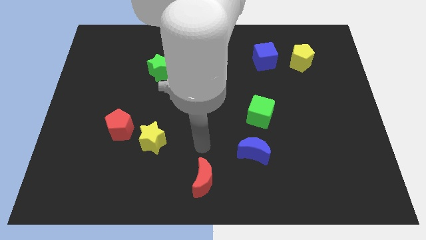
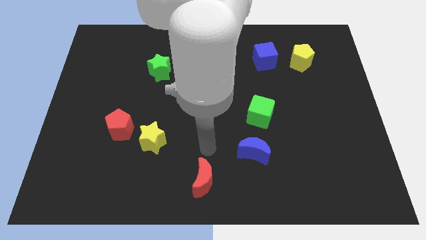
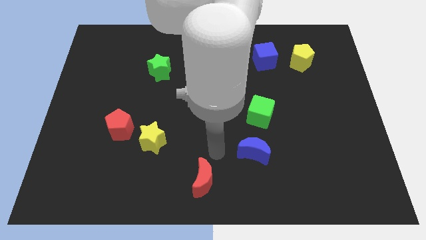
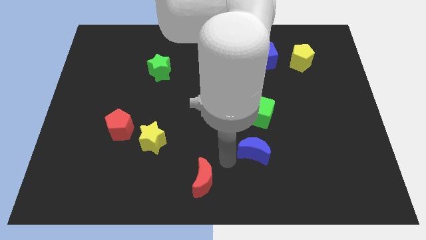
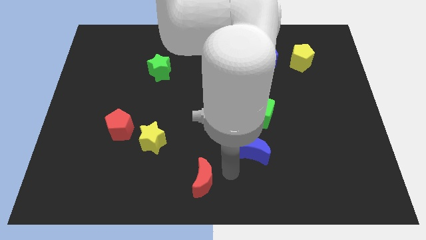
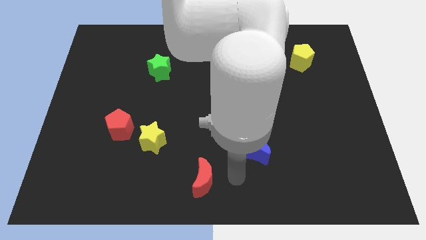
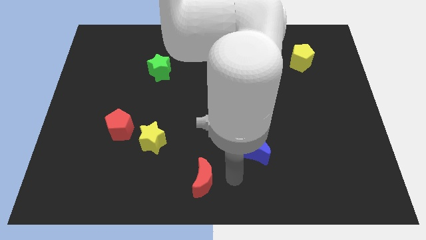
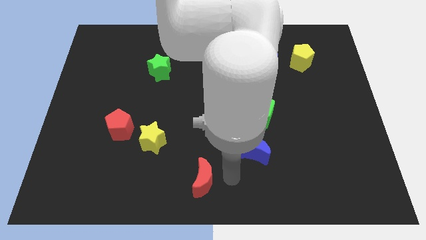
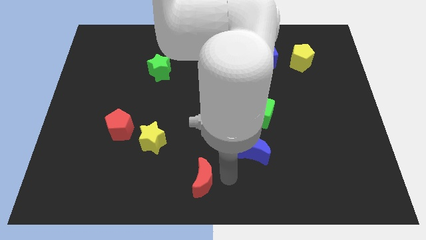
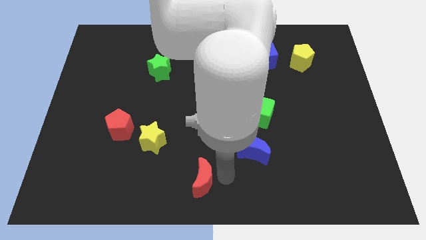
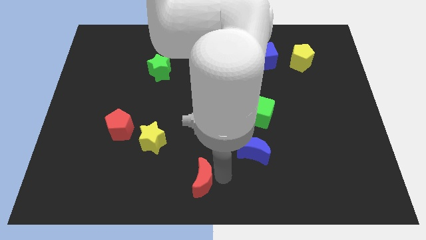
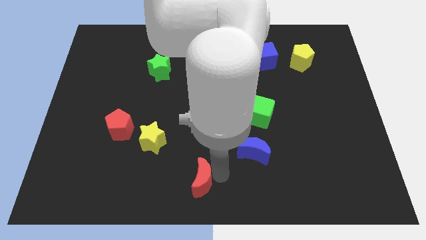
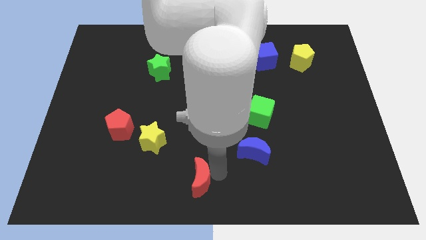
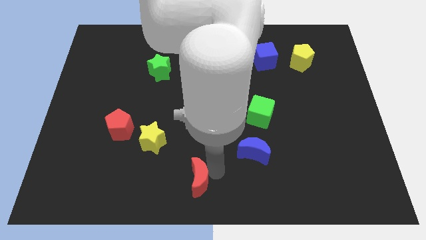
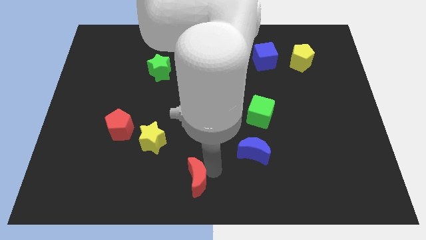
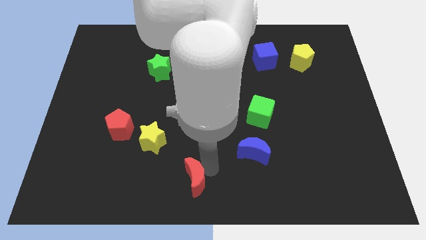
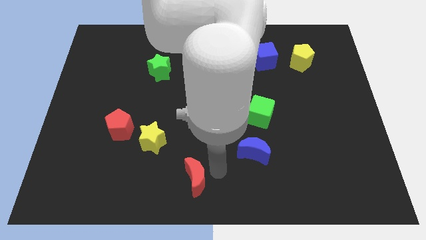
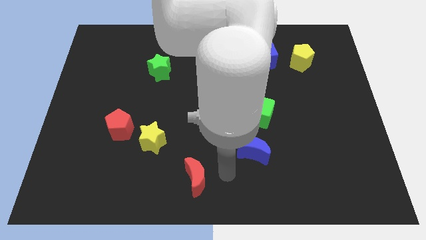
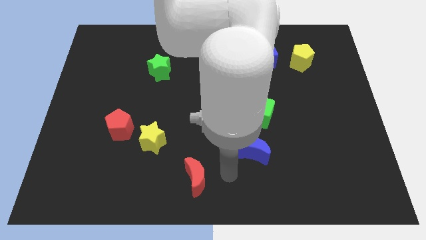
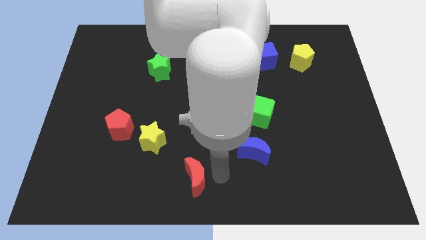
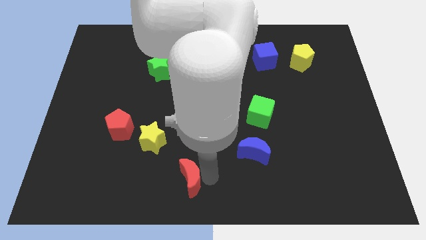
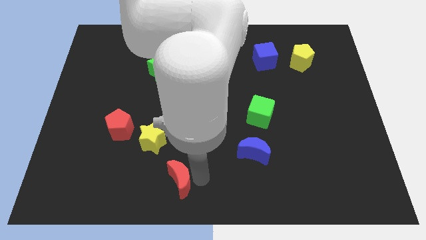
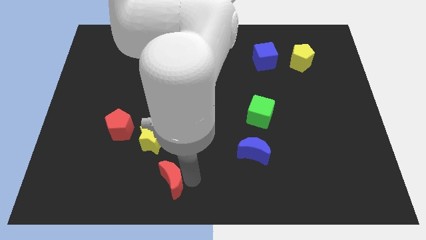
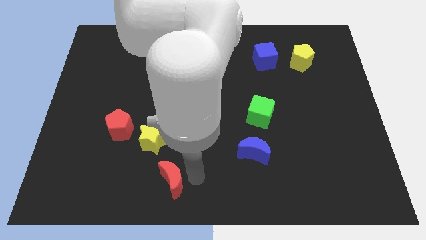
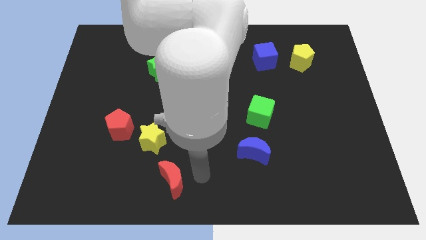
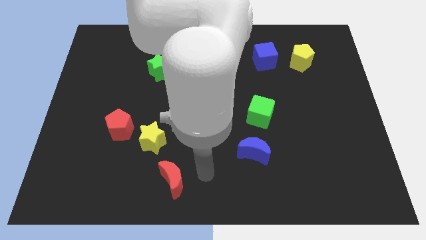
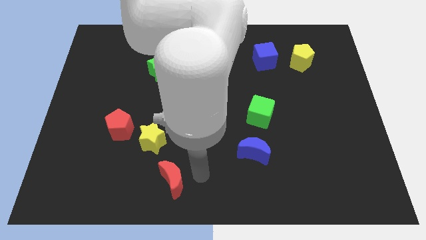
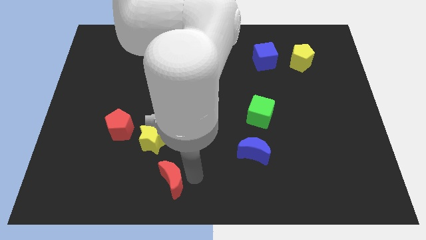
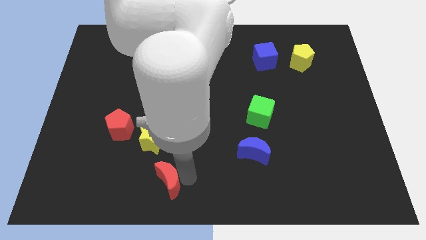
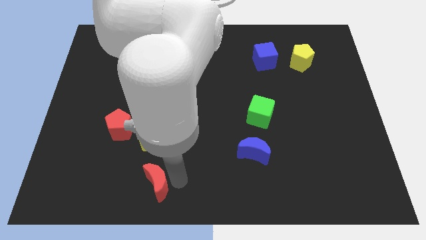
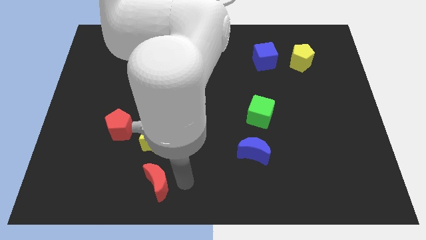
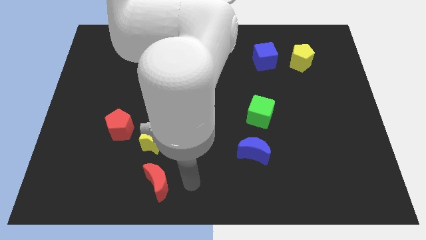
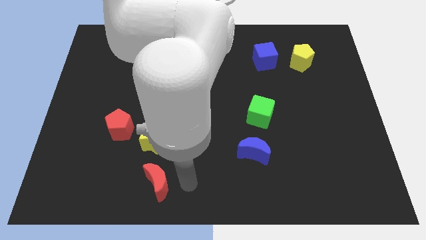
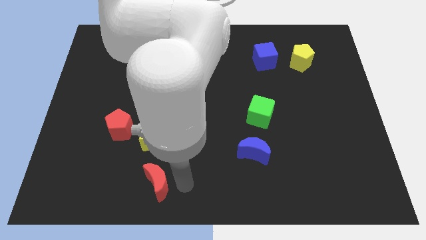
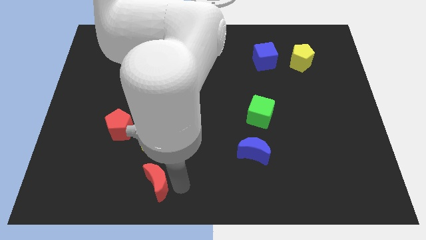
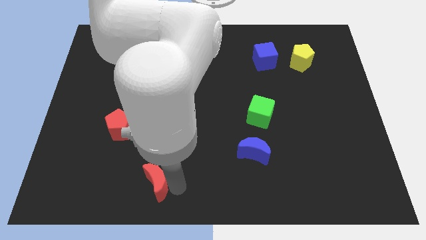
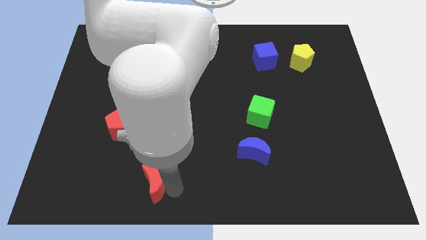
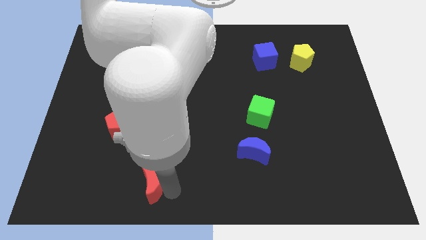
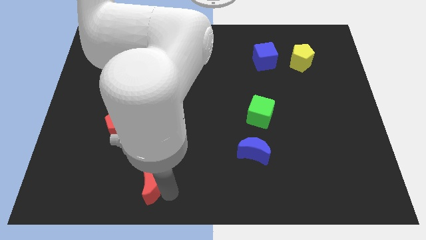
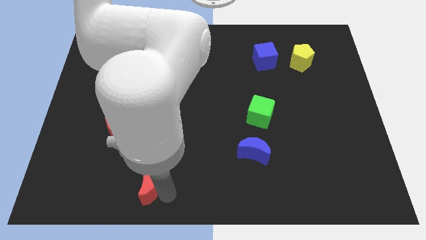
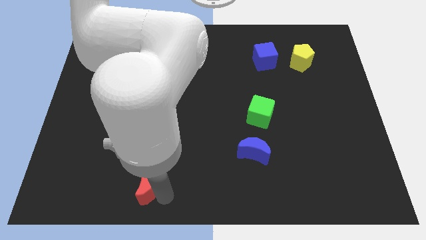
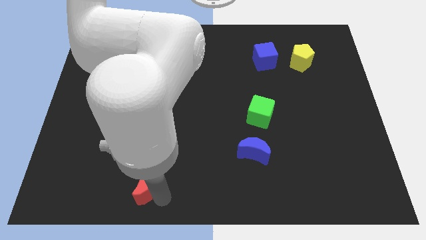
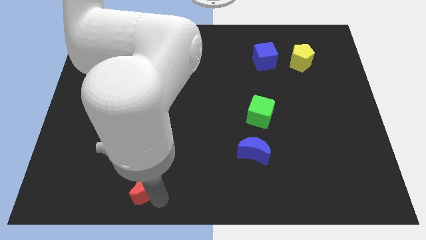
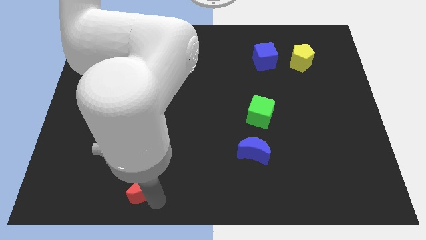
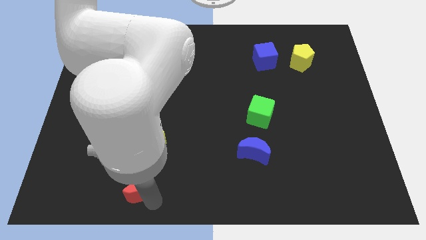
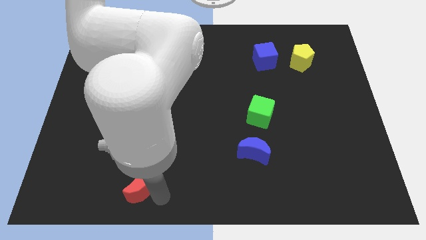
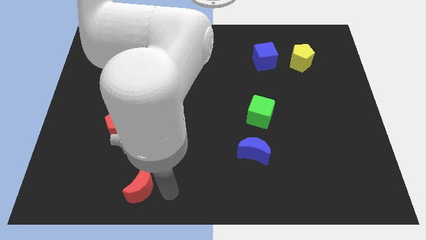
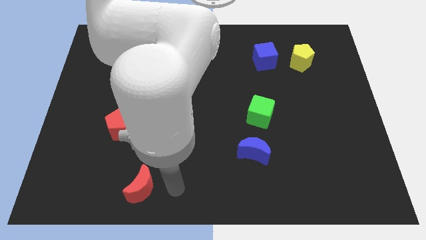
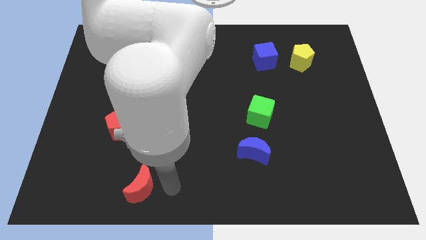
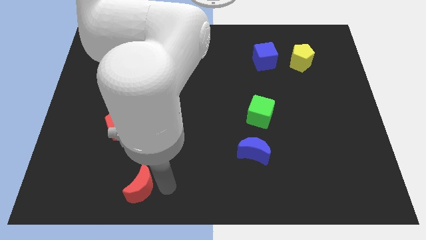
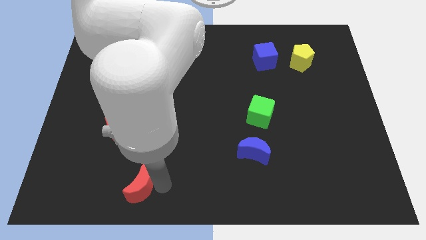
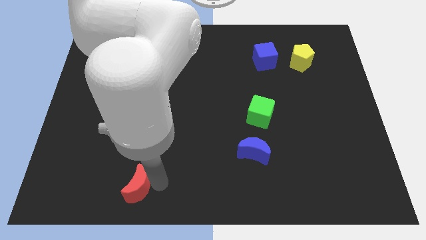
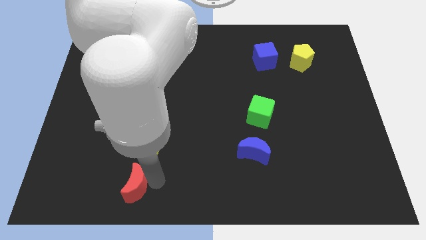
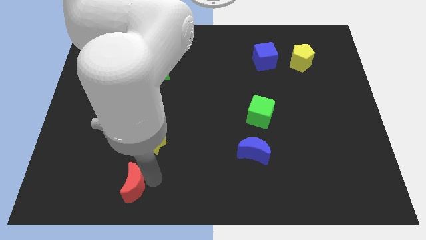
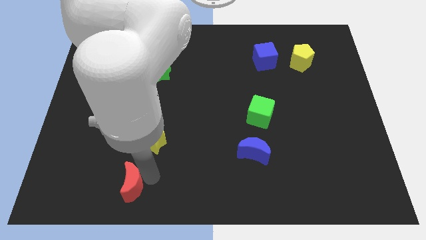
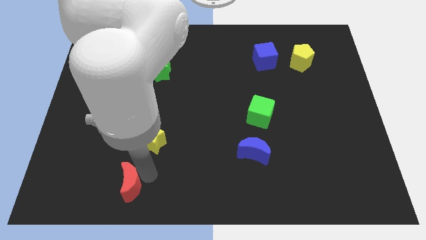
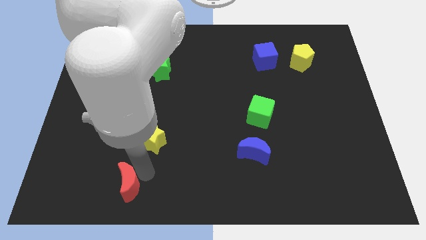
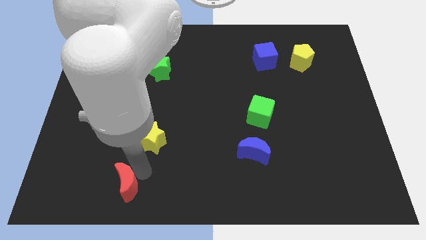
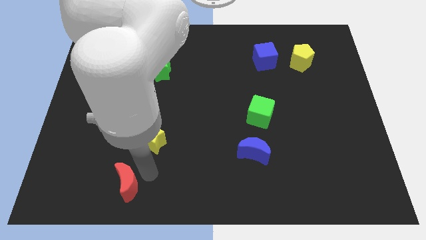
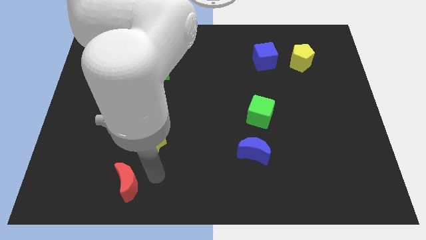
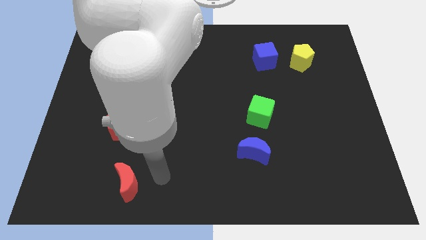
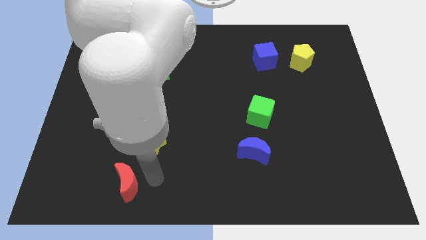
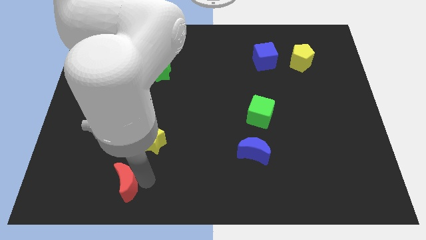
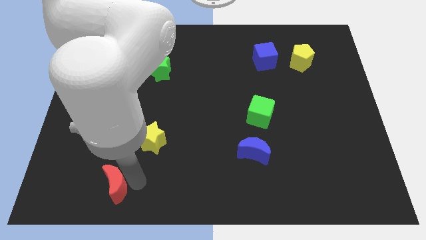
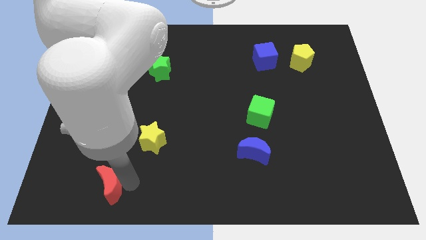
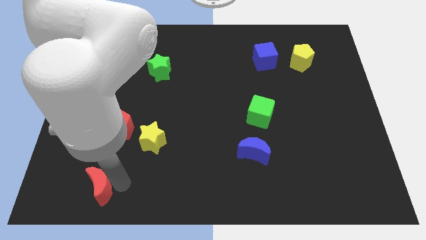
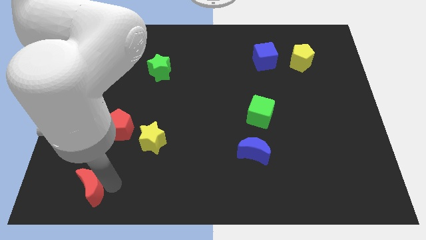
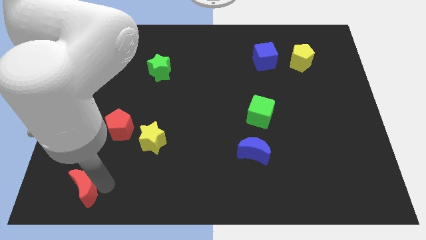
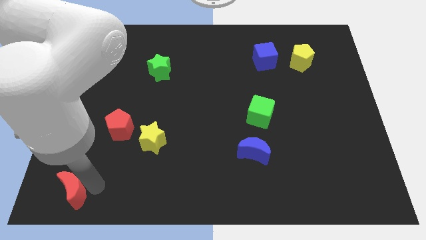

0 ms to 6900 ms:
move the red moon to the lower left corner
